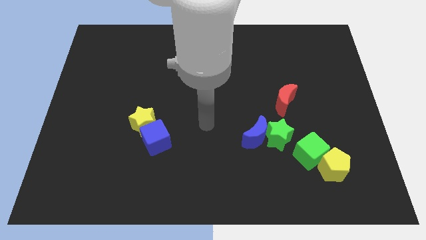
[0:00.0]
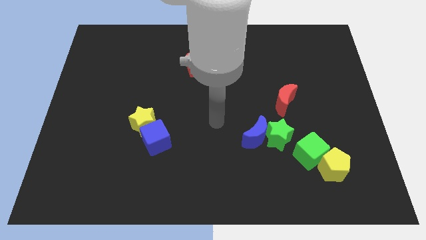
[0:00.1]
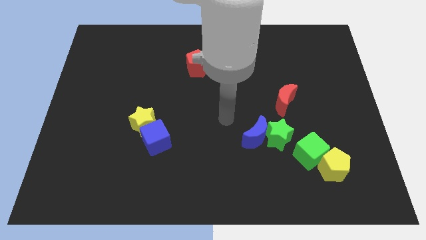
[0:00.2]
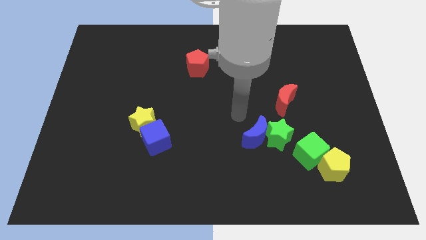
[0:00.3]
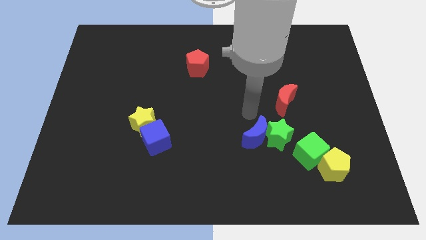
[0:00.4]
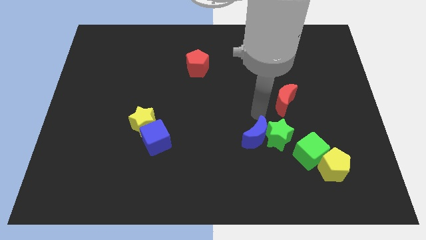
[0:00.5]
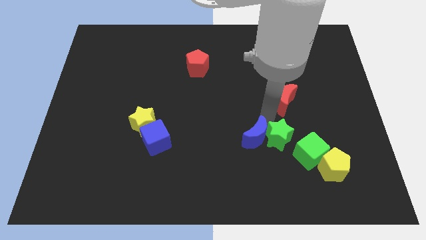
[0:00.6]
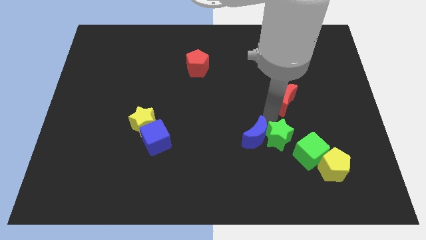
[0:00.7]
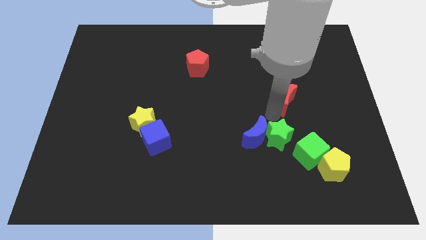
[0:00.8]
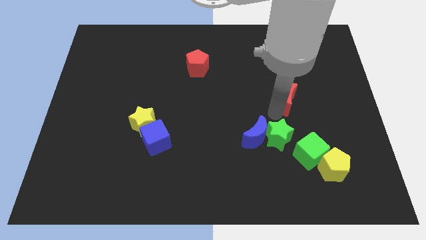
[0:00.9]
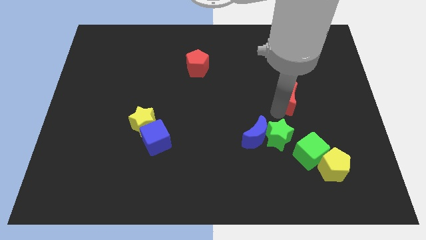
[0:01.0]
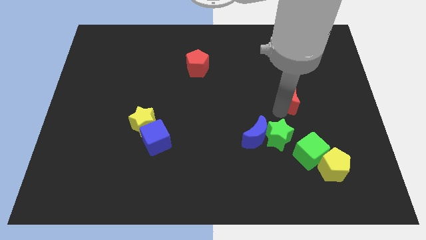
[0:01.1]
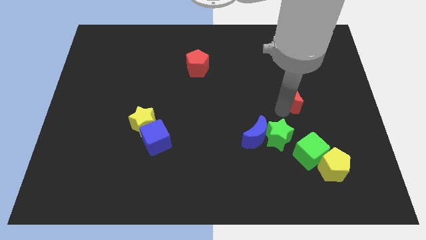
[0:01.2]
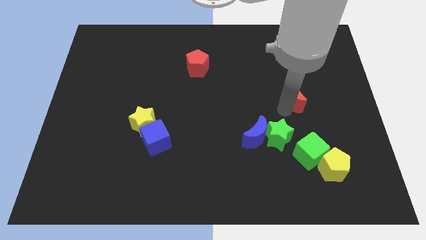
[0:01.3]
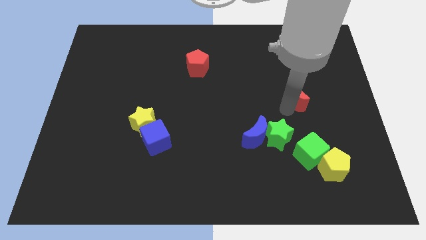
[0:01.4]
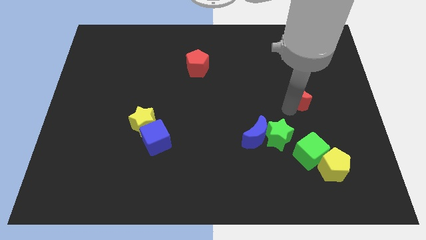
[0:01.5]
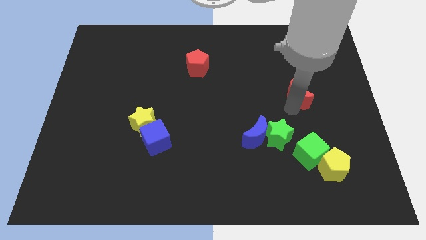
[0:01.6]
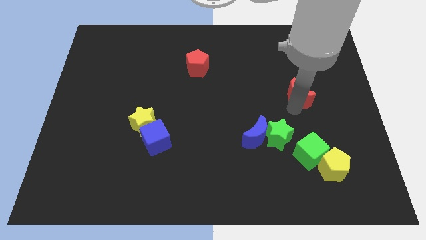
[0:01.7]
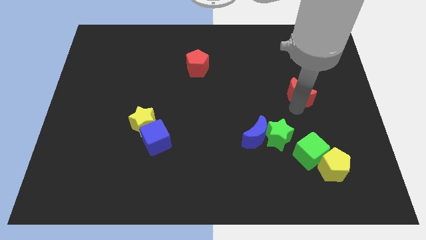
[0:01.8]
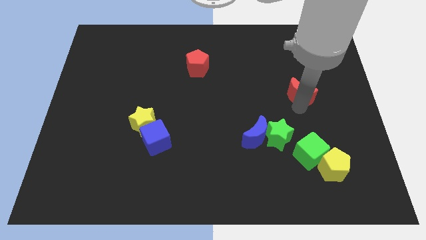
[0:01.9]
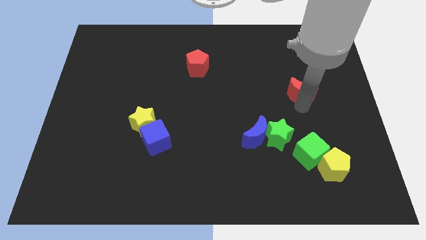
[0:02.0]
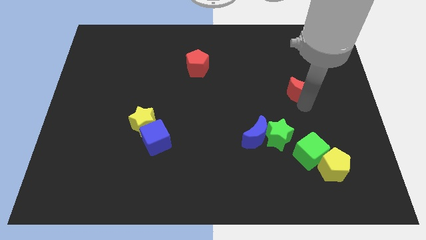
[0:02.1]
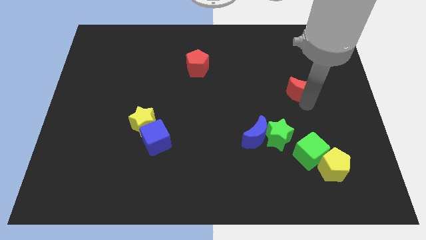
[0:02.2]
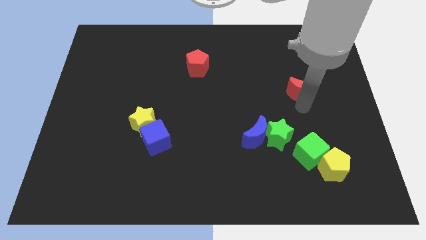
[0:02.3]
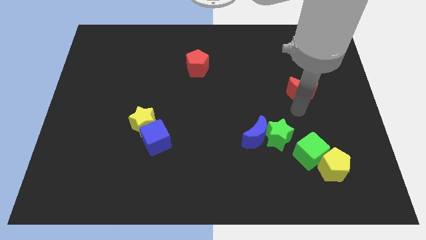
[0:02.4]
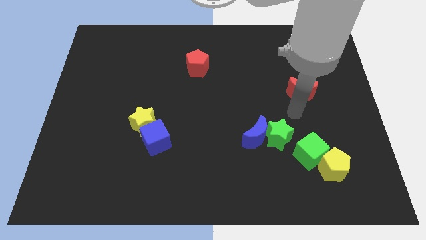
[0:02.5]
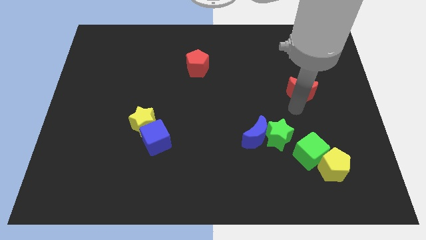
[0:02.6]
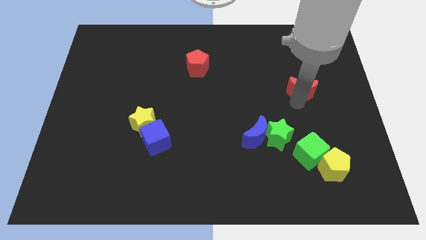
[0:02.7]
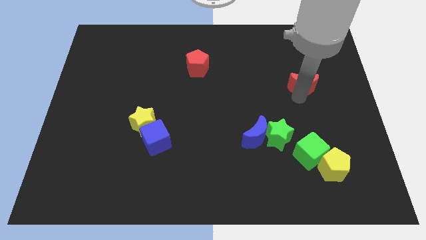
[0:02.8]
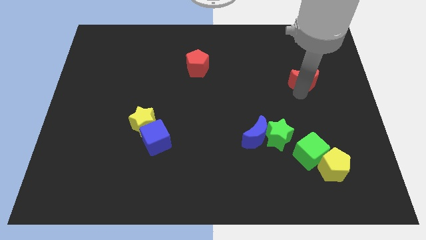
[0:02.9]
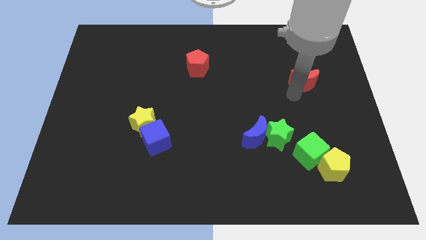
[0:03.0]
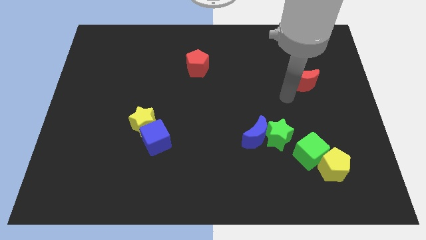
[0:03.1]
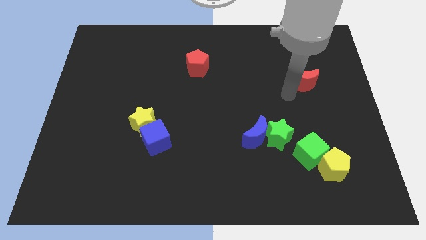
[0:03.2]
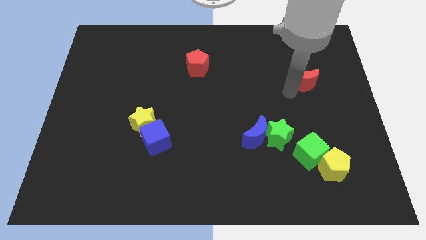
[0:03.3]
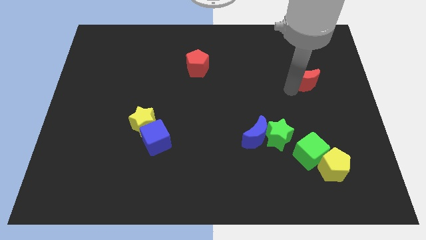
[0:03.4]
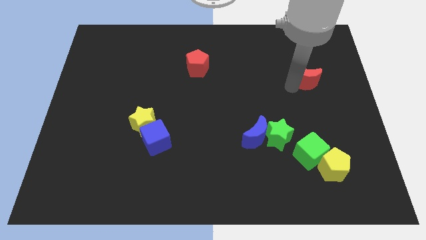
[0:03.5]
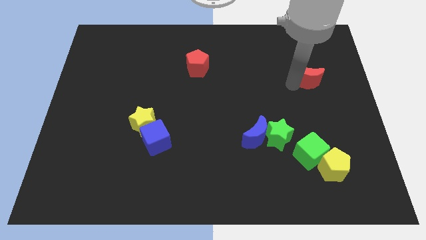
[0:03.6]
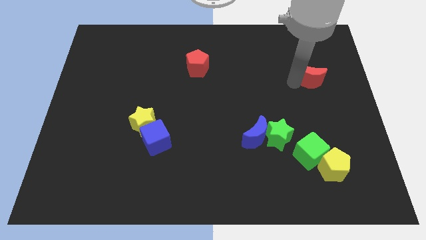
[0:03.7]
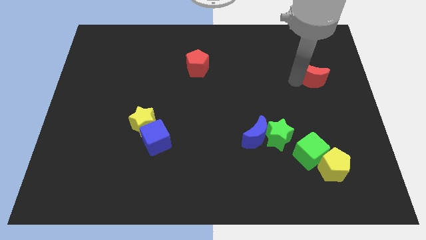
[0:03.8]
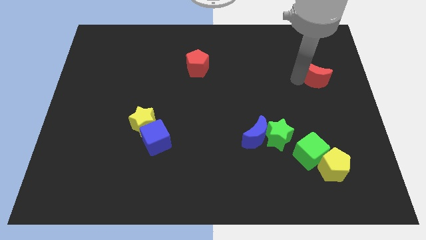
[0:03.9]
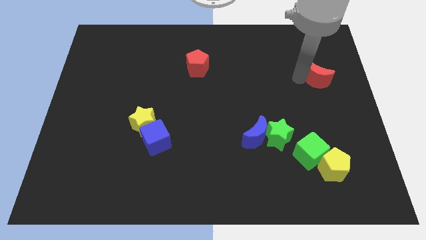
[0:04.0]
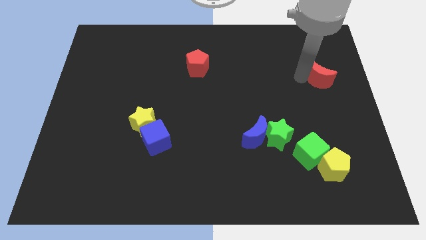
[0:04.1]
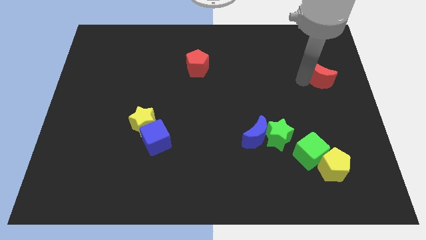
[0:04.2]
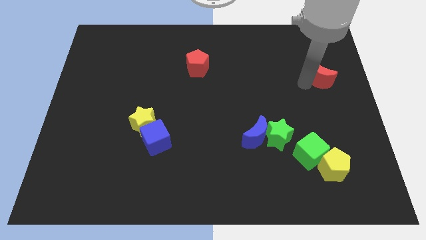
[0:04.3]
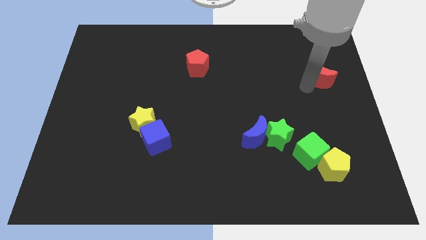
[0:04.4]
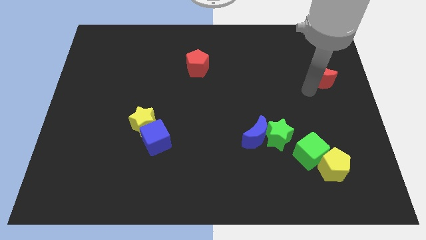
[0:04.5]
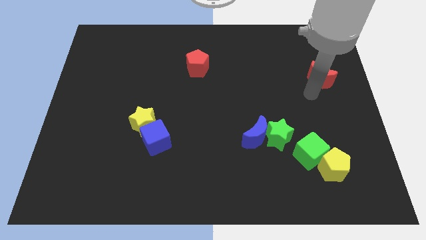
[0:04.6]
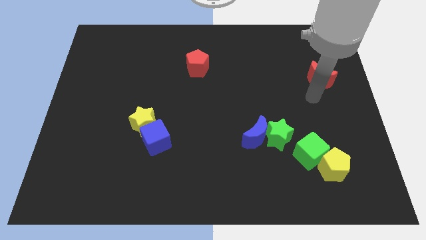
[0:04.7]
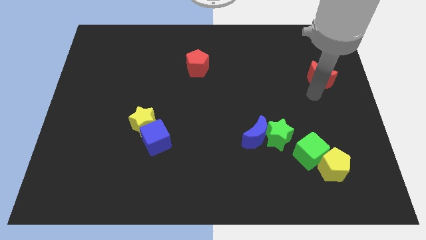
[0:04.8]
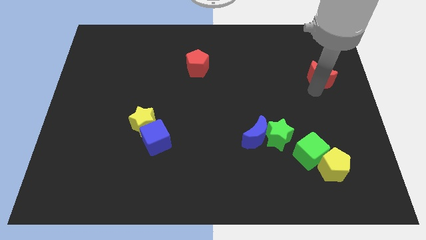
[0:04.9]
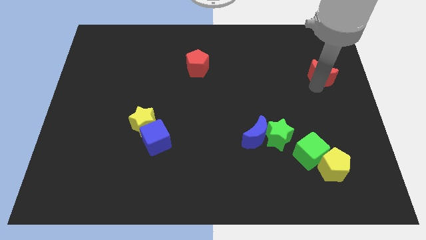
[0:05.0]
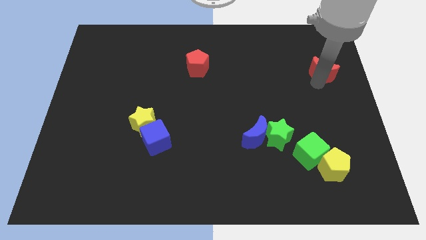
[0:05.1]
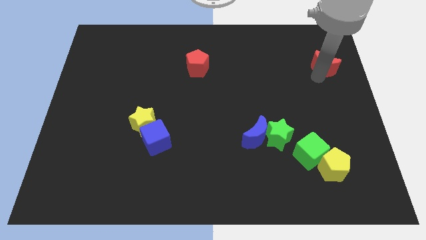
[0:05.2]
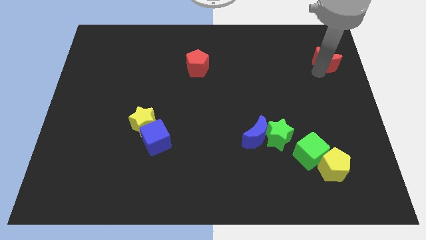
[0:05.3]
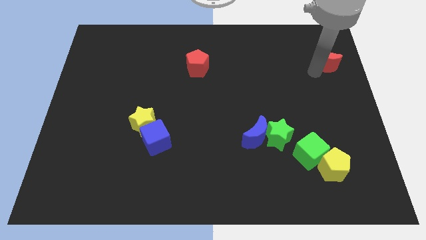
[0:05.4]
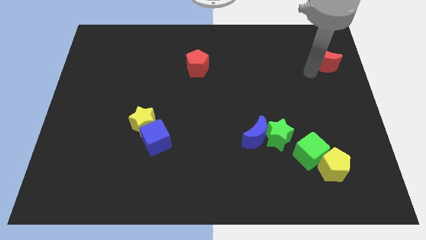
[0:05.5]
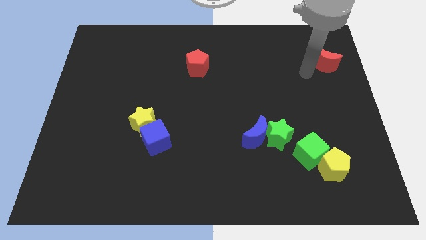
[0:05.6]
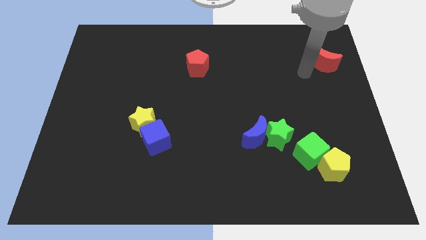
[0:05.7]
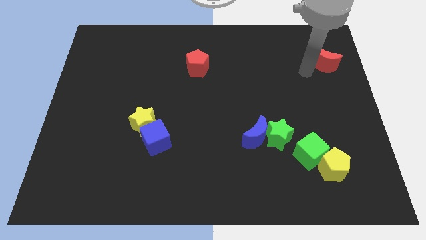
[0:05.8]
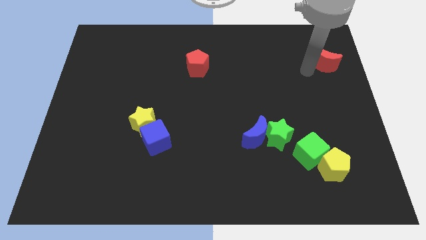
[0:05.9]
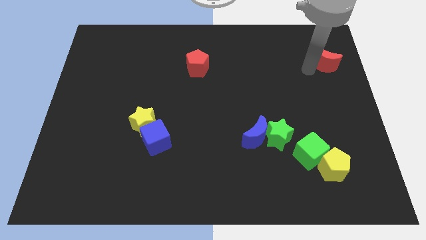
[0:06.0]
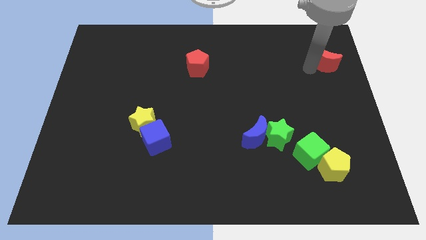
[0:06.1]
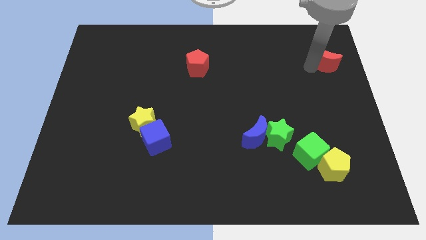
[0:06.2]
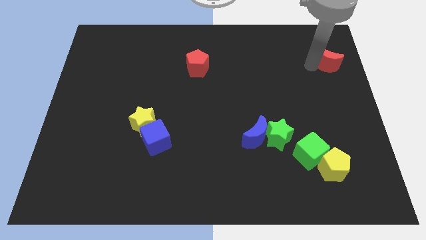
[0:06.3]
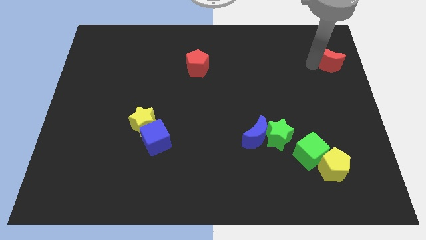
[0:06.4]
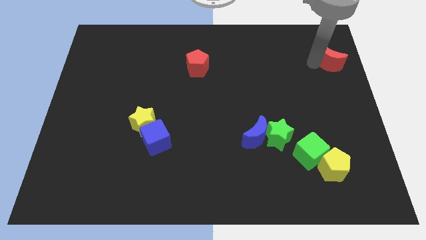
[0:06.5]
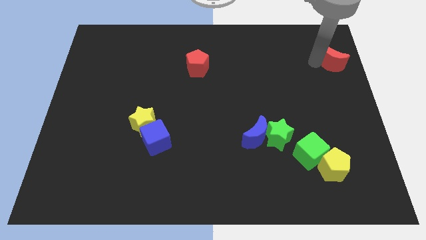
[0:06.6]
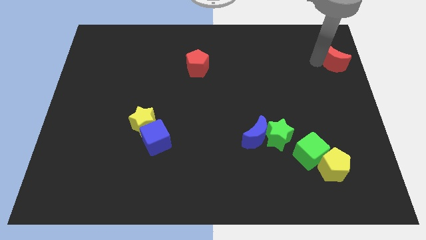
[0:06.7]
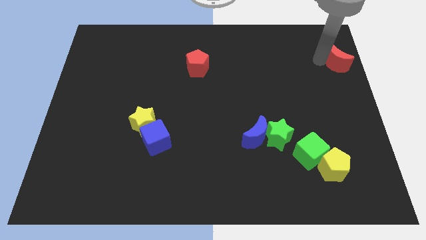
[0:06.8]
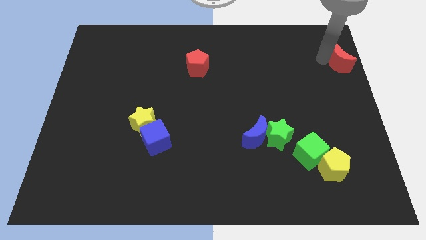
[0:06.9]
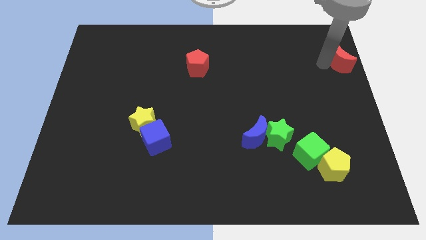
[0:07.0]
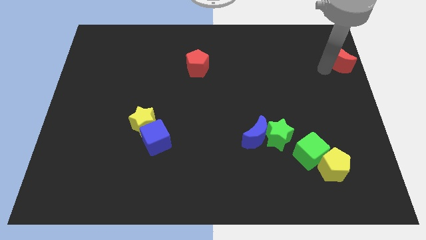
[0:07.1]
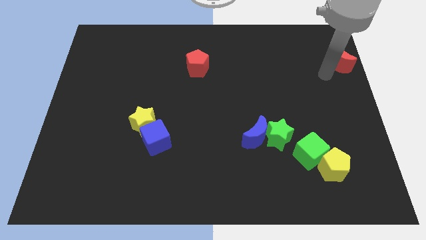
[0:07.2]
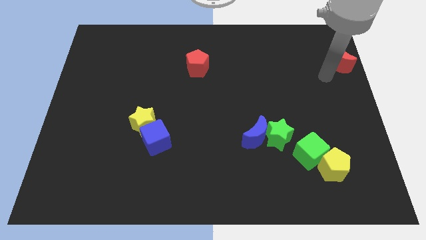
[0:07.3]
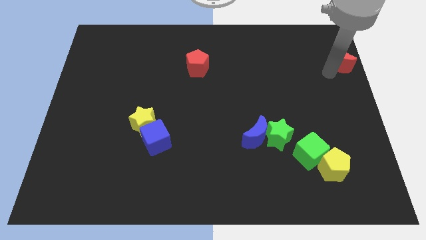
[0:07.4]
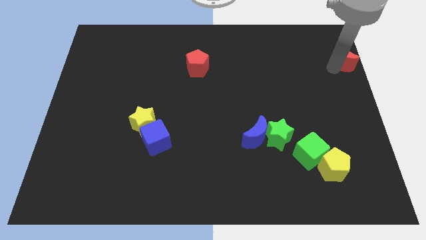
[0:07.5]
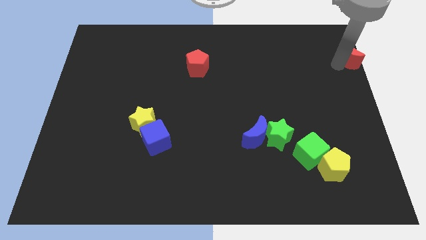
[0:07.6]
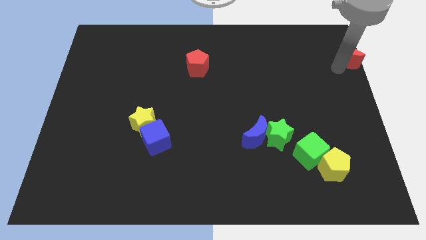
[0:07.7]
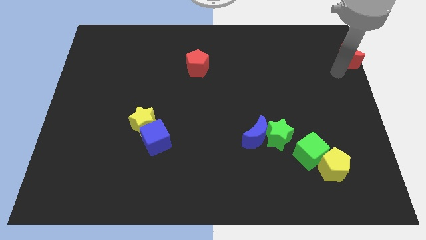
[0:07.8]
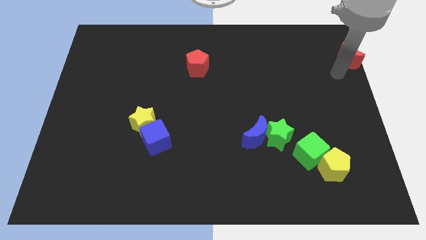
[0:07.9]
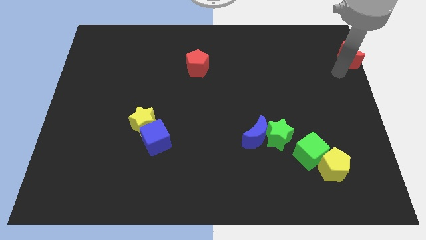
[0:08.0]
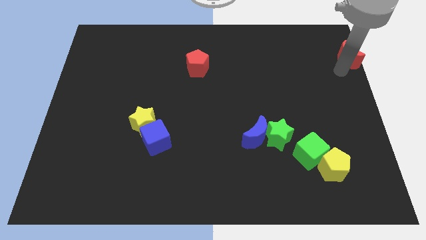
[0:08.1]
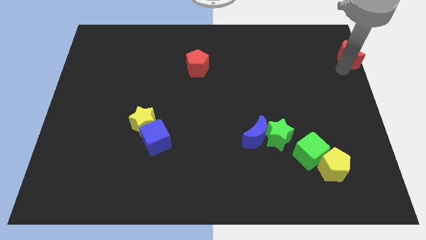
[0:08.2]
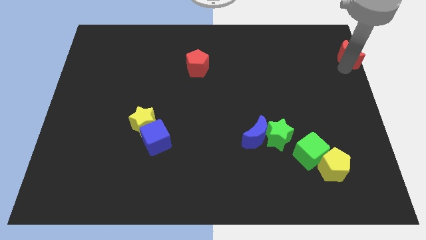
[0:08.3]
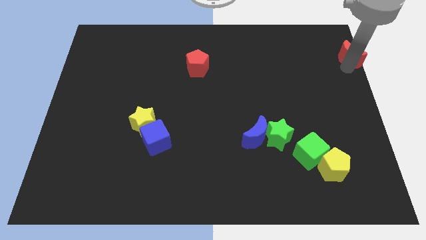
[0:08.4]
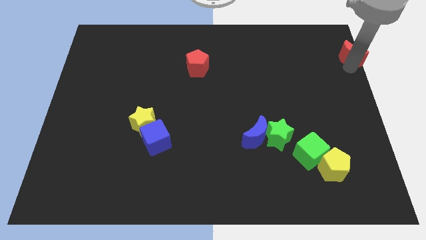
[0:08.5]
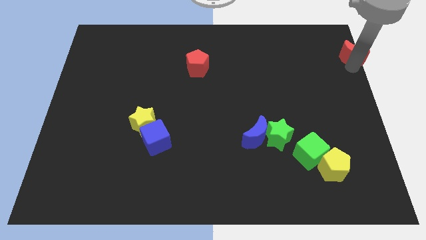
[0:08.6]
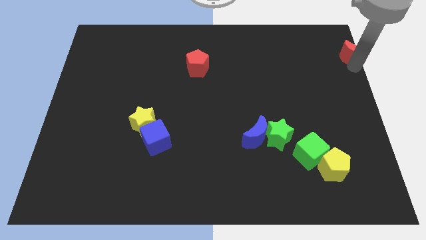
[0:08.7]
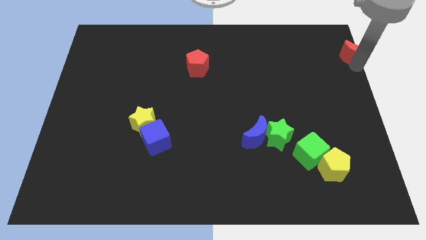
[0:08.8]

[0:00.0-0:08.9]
push the red moon to the top right corner
